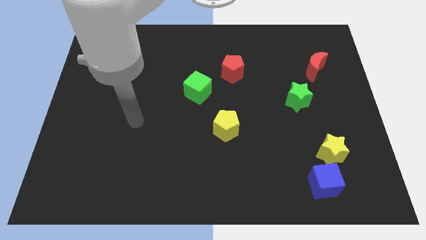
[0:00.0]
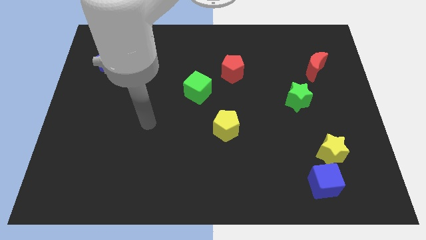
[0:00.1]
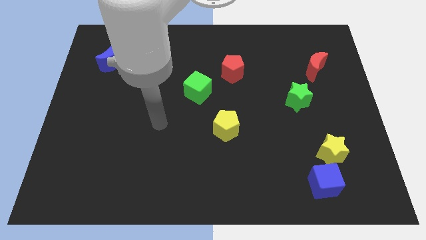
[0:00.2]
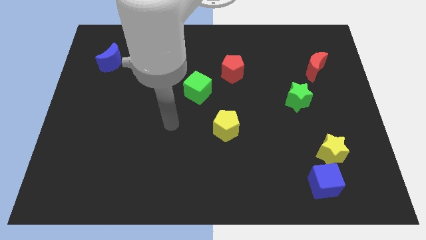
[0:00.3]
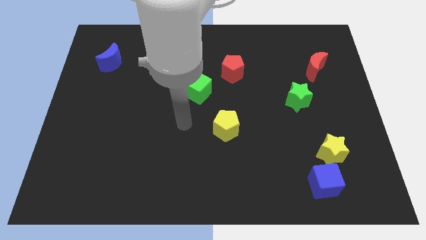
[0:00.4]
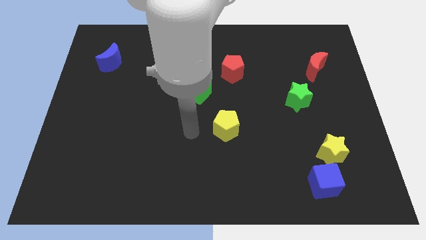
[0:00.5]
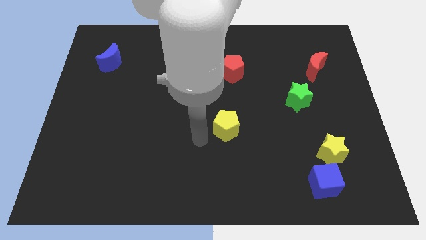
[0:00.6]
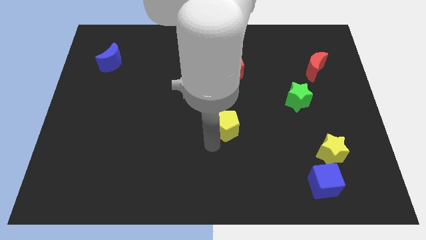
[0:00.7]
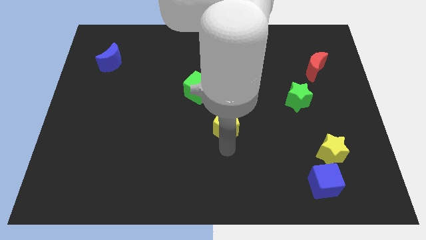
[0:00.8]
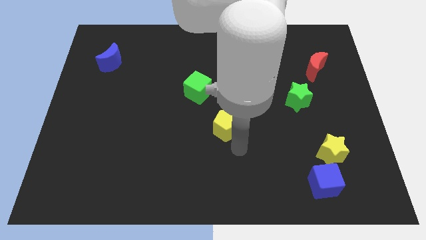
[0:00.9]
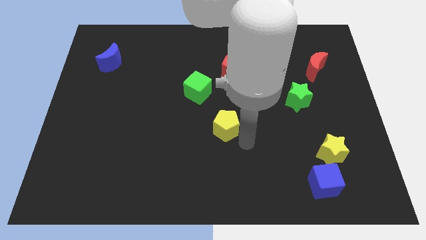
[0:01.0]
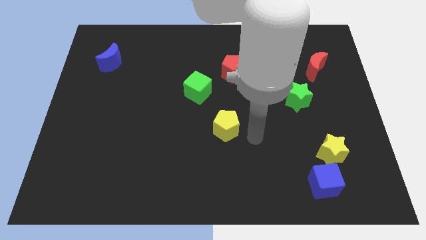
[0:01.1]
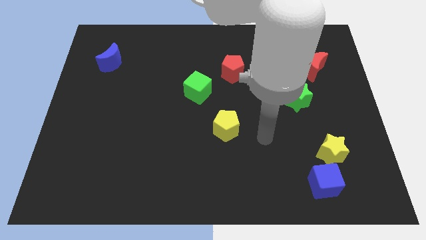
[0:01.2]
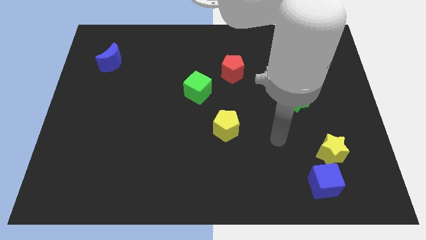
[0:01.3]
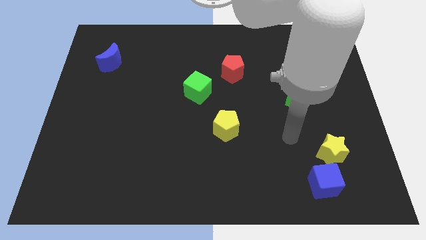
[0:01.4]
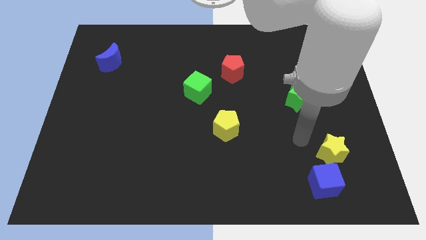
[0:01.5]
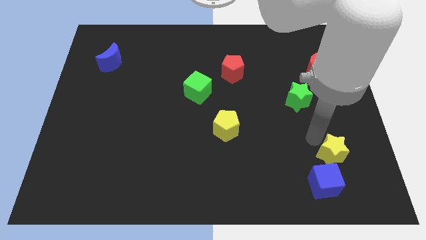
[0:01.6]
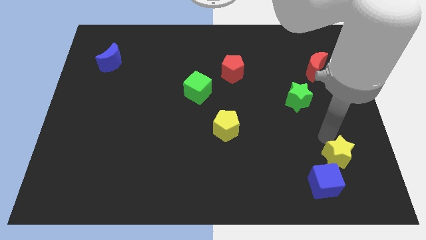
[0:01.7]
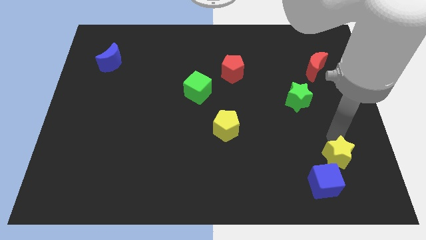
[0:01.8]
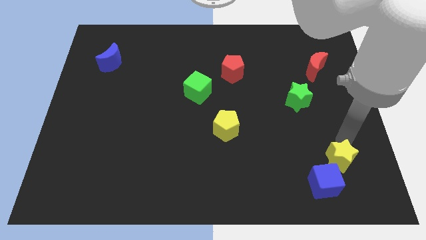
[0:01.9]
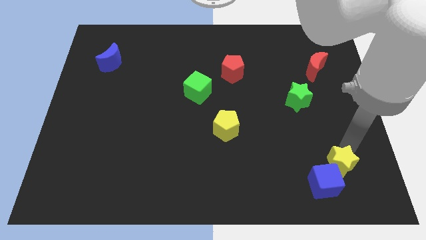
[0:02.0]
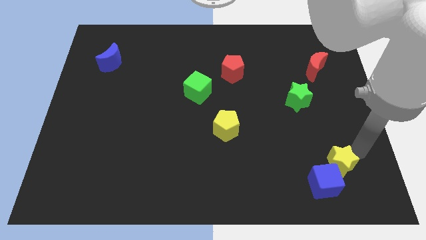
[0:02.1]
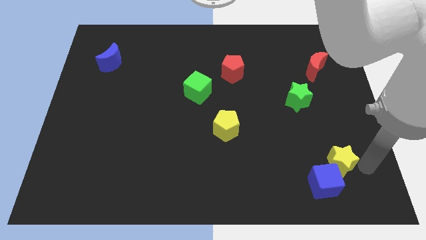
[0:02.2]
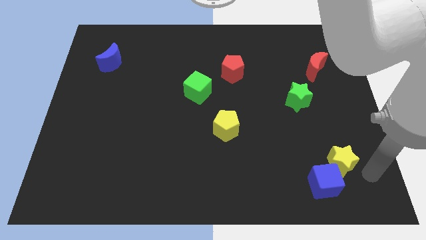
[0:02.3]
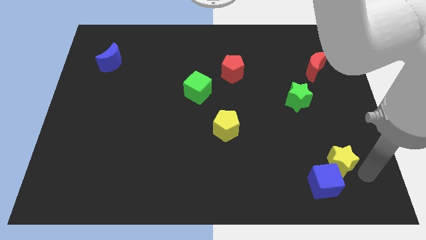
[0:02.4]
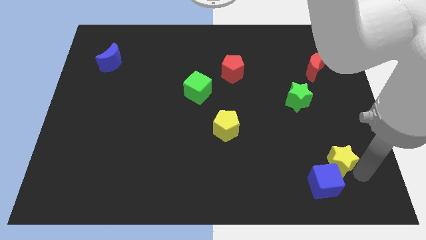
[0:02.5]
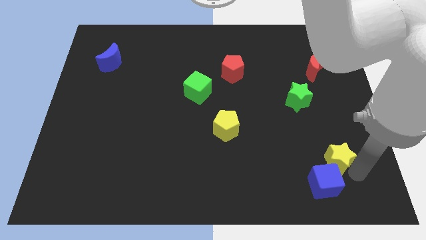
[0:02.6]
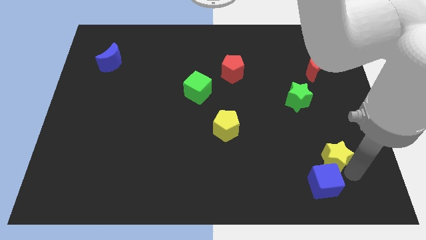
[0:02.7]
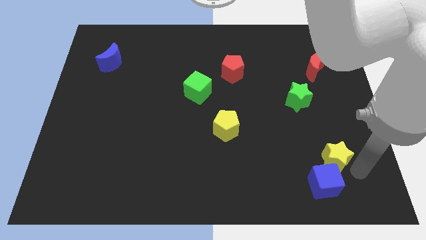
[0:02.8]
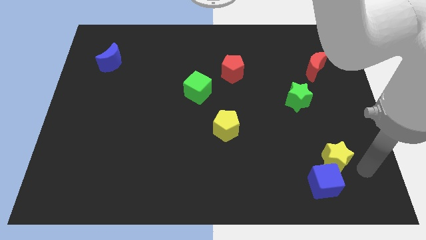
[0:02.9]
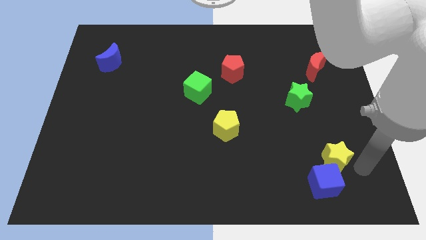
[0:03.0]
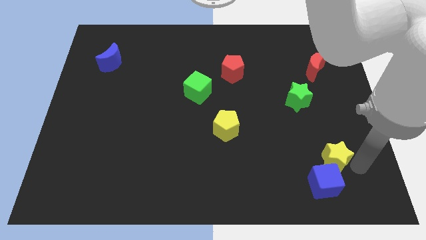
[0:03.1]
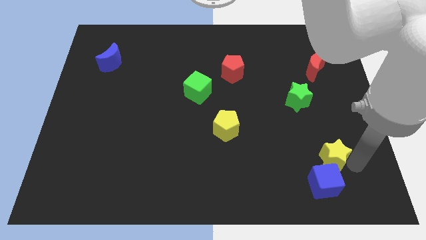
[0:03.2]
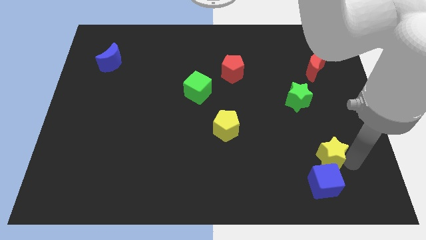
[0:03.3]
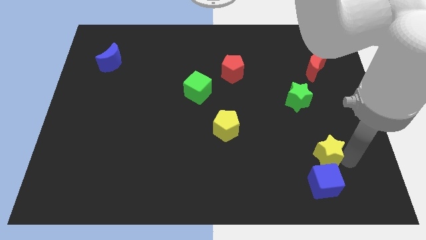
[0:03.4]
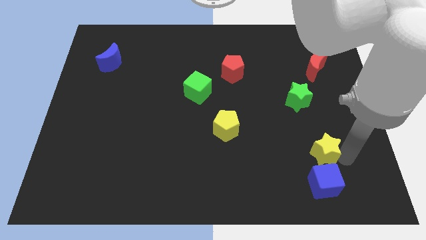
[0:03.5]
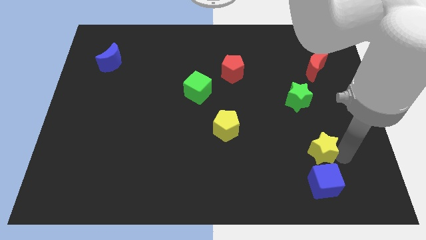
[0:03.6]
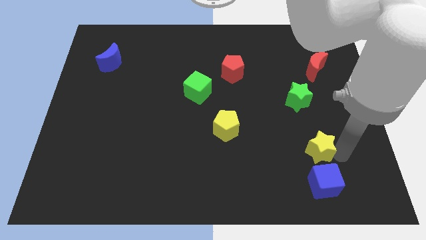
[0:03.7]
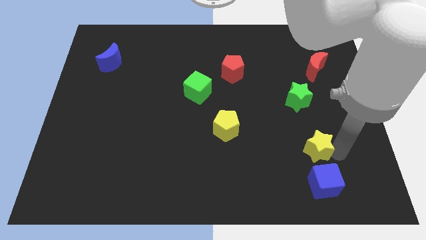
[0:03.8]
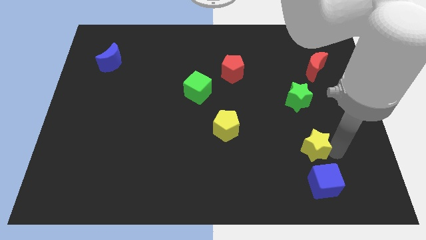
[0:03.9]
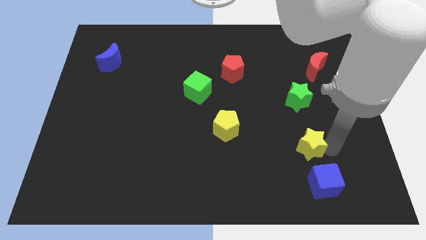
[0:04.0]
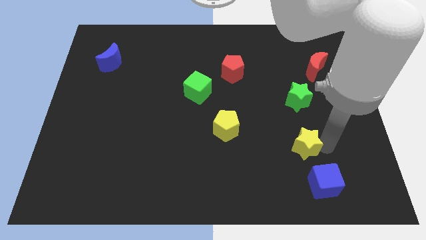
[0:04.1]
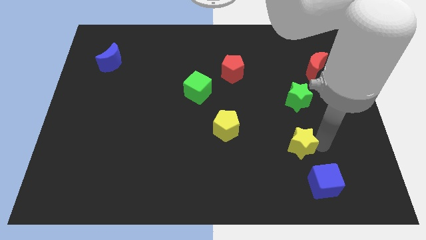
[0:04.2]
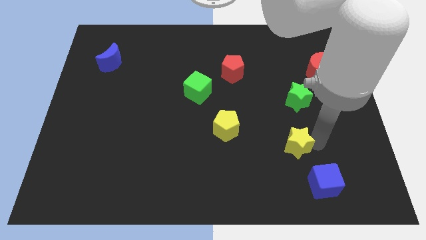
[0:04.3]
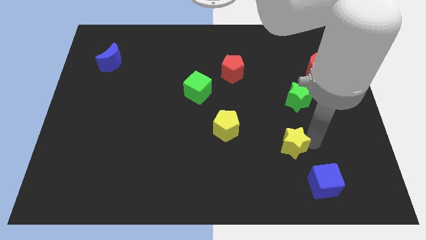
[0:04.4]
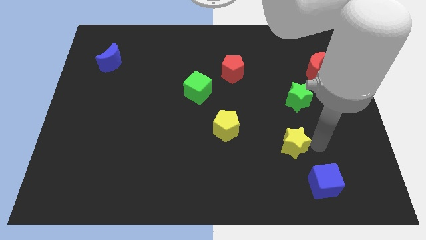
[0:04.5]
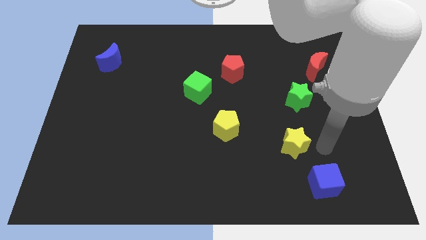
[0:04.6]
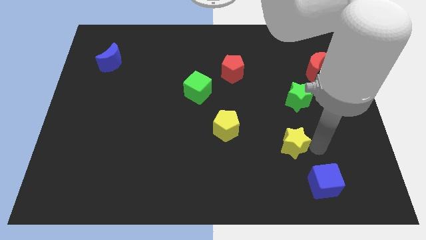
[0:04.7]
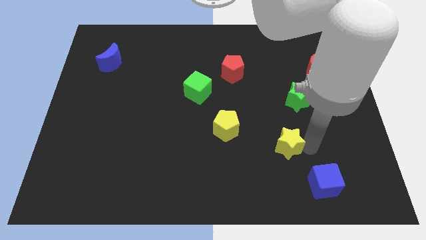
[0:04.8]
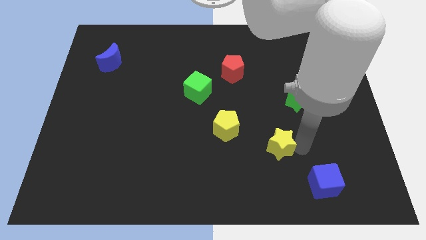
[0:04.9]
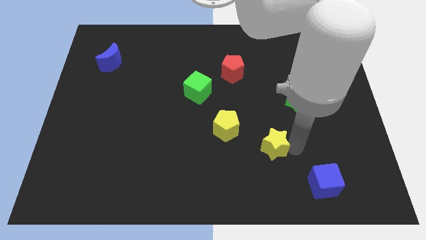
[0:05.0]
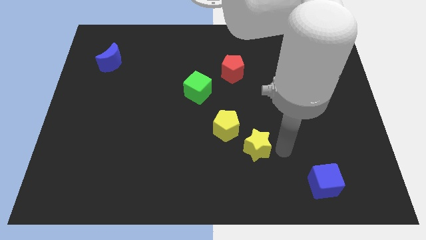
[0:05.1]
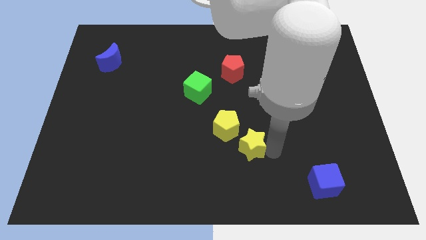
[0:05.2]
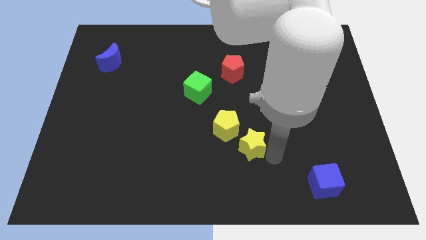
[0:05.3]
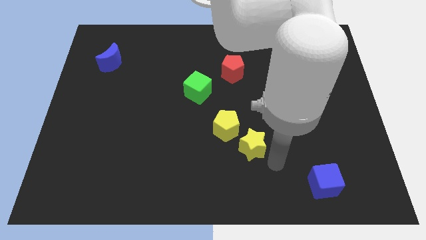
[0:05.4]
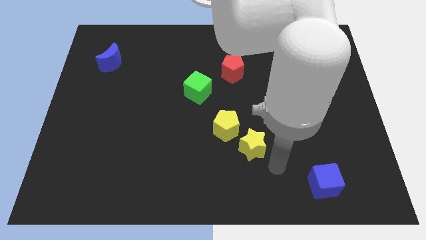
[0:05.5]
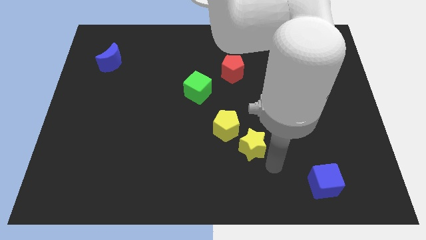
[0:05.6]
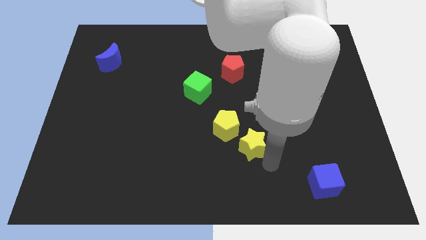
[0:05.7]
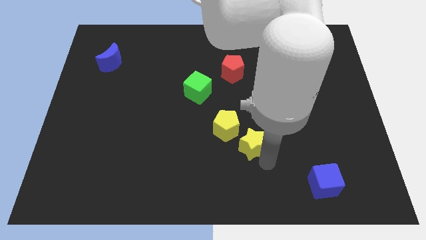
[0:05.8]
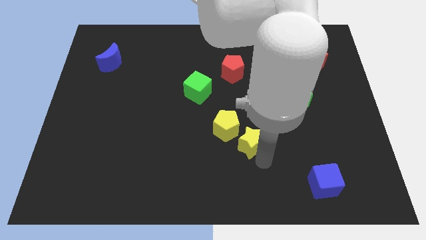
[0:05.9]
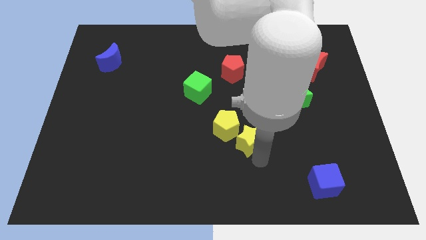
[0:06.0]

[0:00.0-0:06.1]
slide the yellow star next to the yellow pentagon

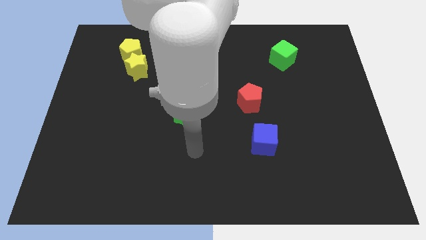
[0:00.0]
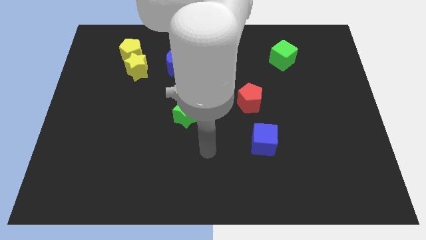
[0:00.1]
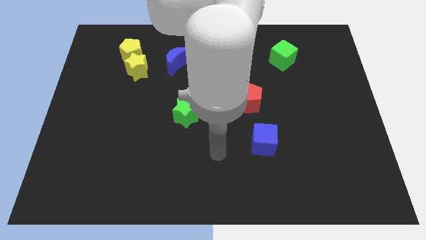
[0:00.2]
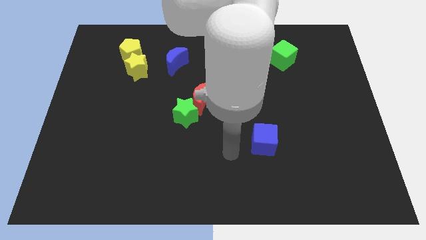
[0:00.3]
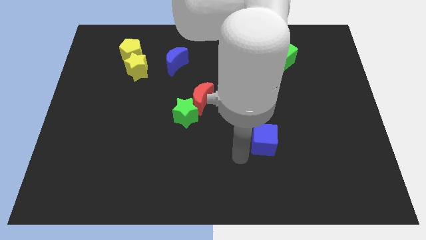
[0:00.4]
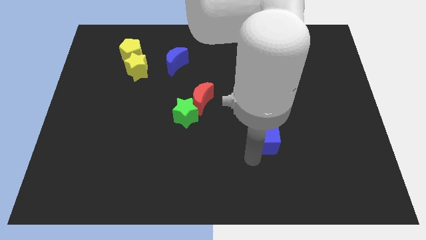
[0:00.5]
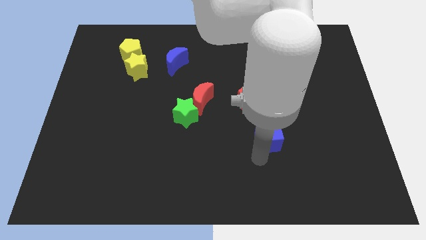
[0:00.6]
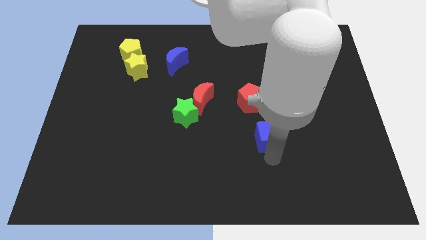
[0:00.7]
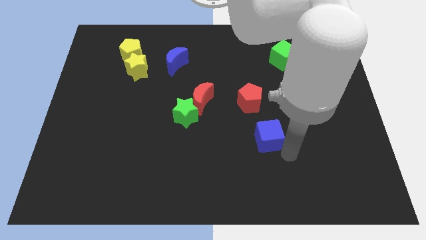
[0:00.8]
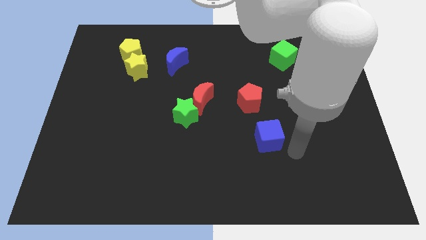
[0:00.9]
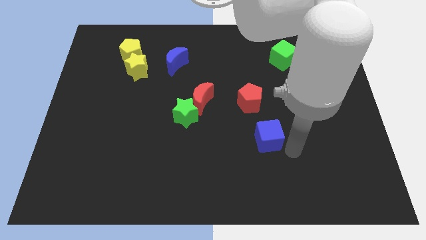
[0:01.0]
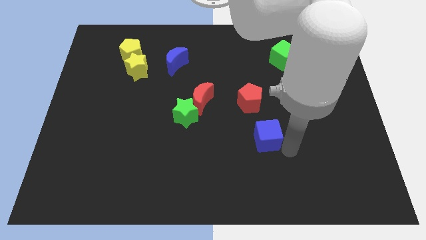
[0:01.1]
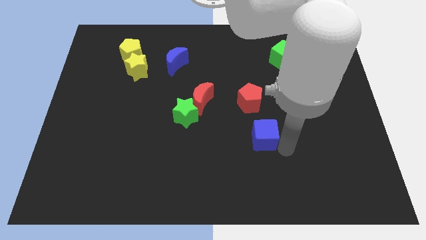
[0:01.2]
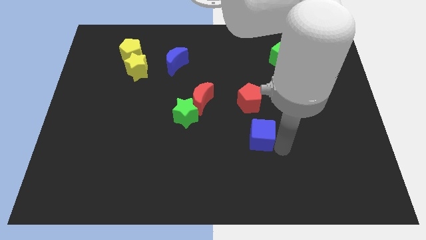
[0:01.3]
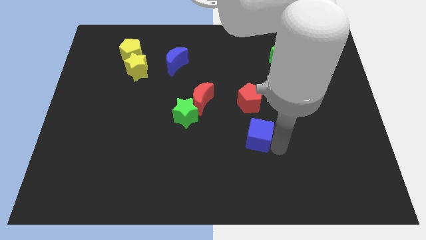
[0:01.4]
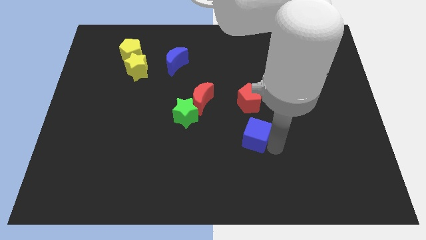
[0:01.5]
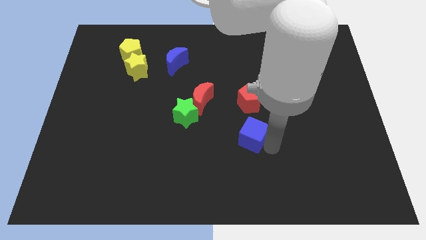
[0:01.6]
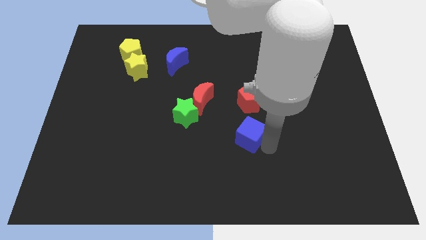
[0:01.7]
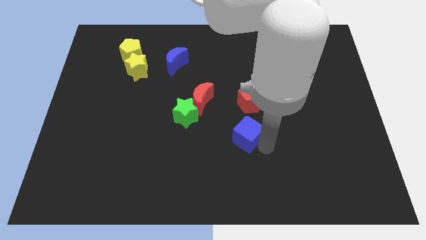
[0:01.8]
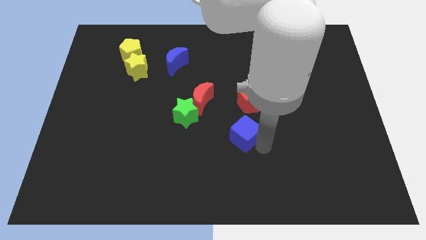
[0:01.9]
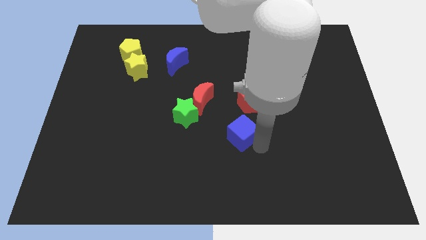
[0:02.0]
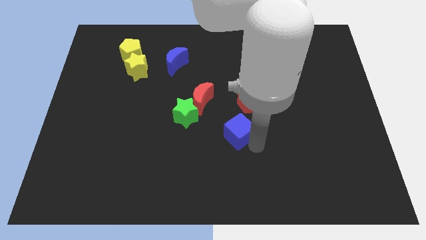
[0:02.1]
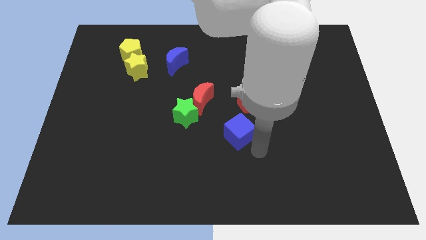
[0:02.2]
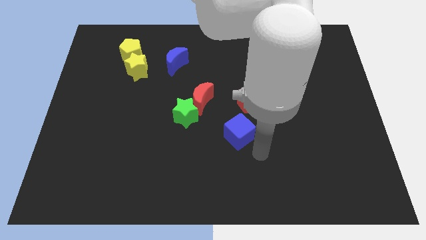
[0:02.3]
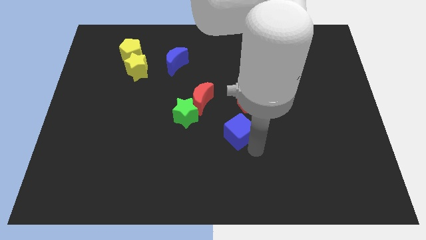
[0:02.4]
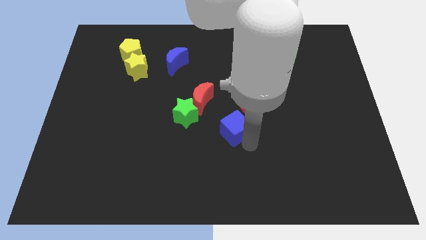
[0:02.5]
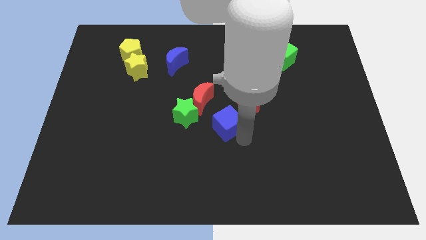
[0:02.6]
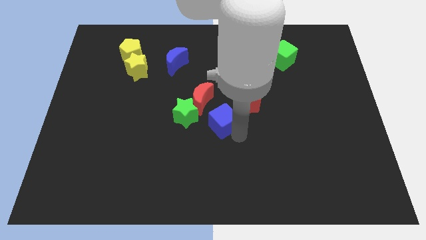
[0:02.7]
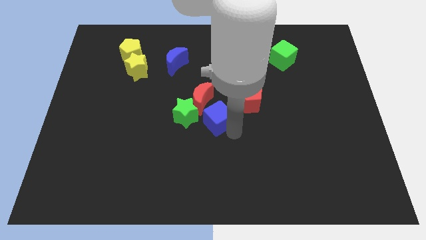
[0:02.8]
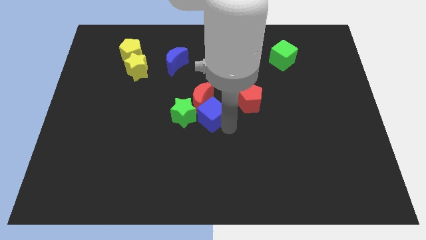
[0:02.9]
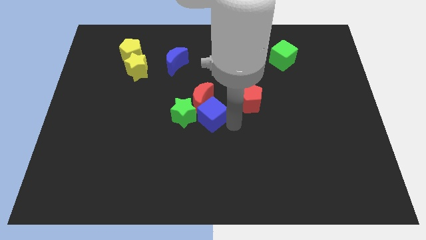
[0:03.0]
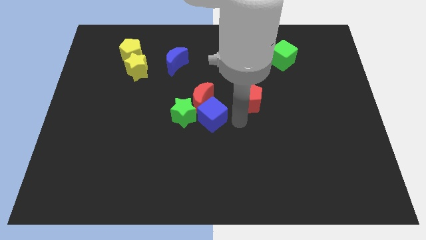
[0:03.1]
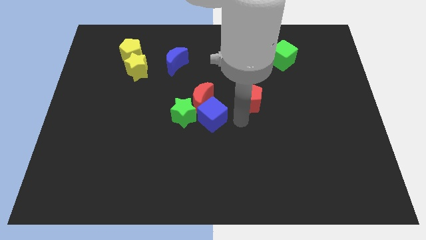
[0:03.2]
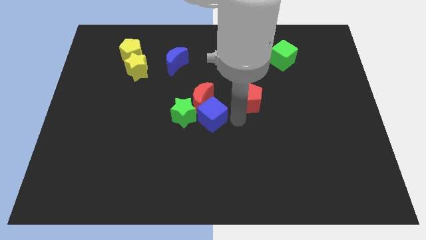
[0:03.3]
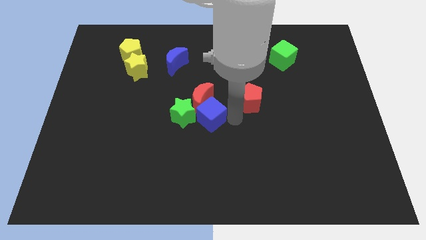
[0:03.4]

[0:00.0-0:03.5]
move the blue cube to the green star
